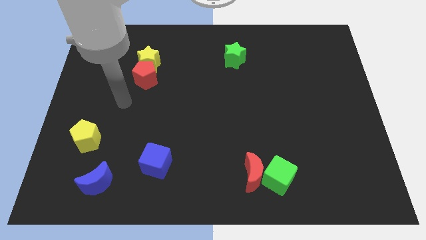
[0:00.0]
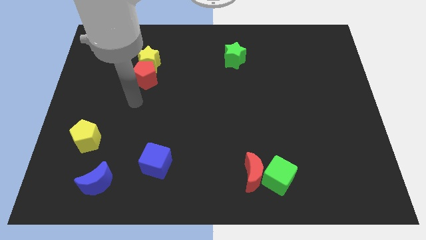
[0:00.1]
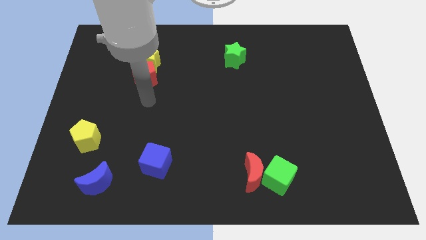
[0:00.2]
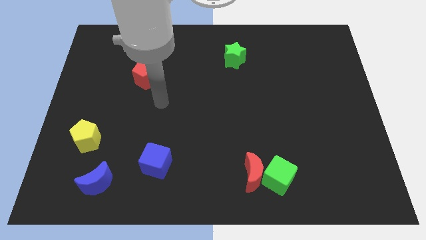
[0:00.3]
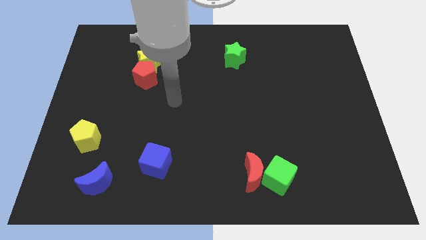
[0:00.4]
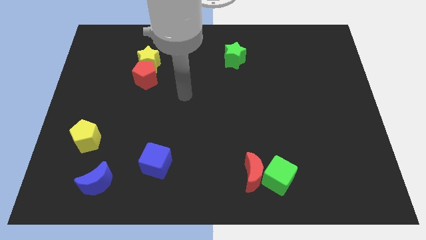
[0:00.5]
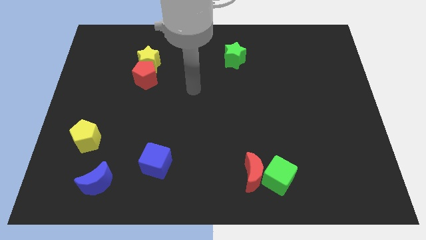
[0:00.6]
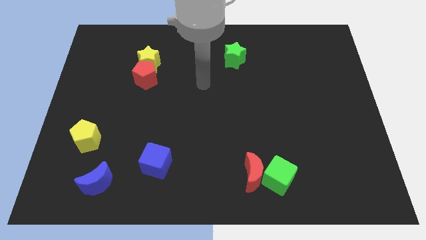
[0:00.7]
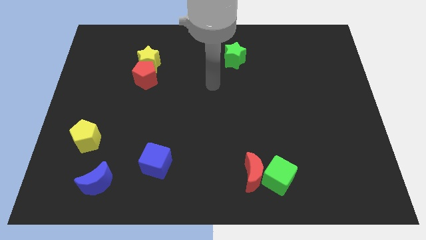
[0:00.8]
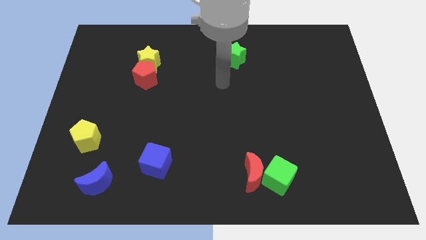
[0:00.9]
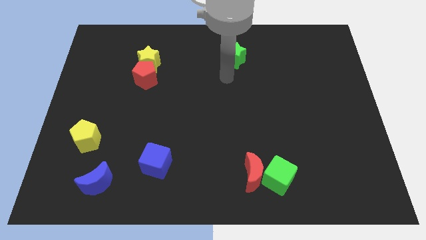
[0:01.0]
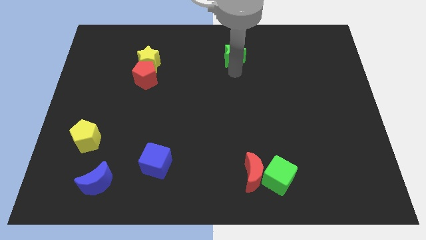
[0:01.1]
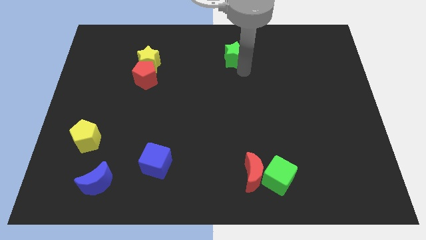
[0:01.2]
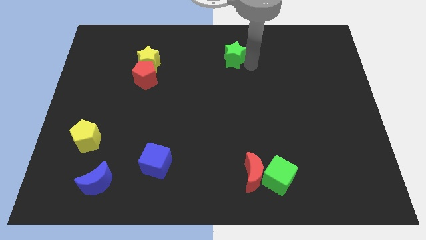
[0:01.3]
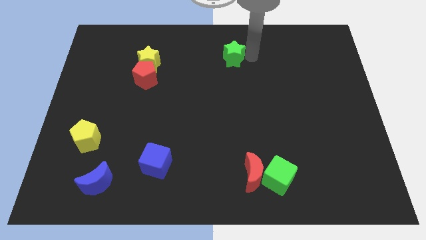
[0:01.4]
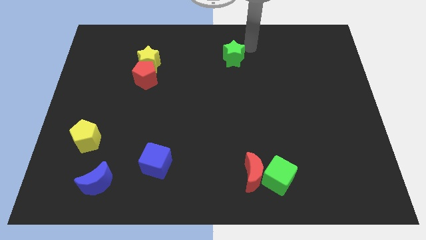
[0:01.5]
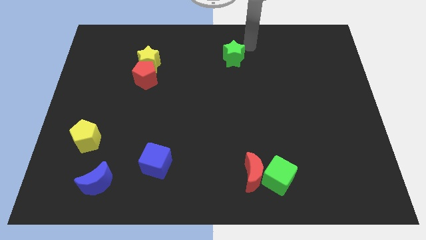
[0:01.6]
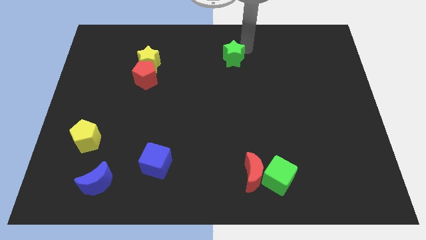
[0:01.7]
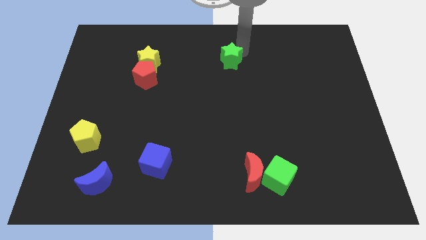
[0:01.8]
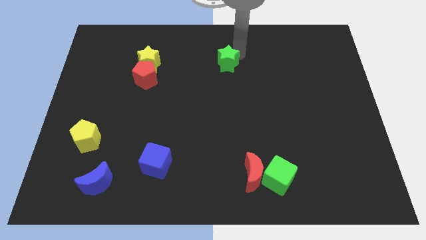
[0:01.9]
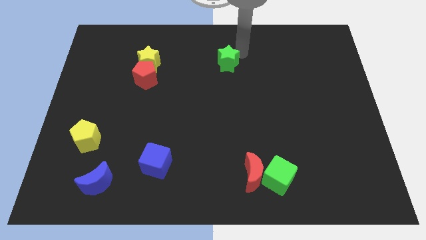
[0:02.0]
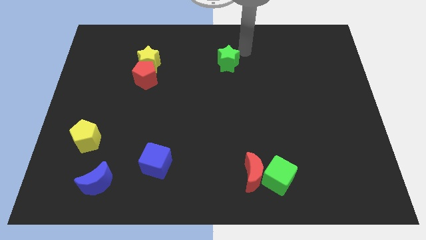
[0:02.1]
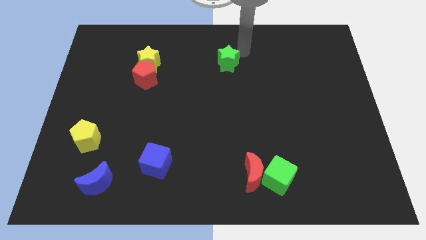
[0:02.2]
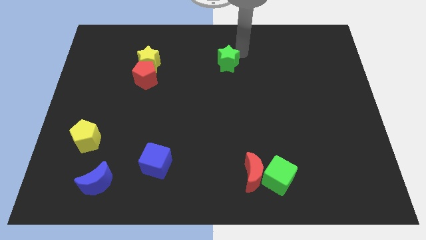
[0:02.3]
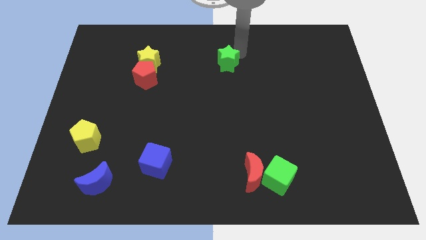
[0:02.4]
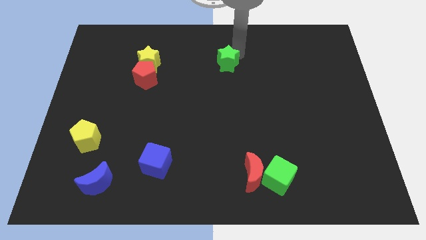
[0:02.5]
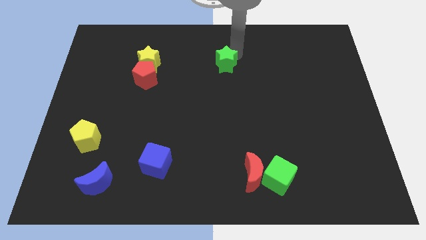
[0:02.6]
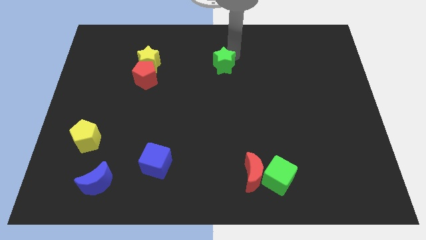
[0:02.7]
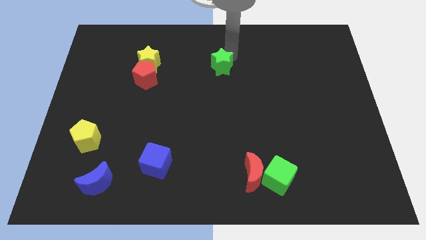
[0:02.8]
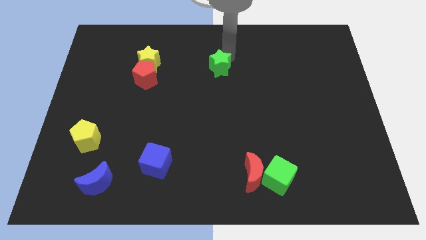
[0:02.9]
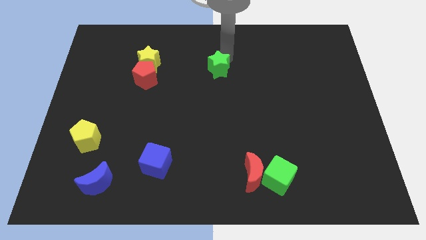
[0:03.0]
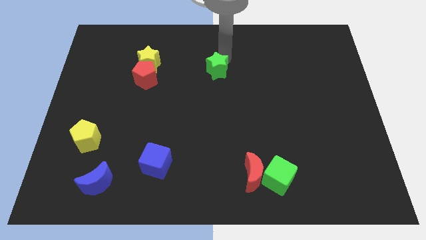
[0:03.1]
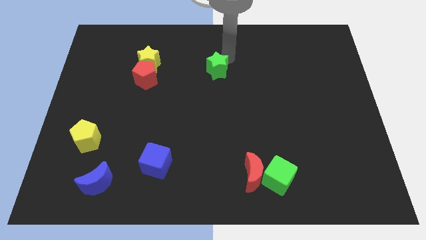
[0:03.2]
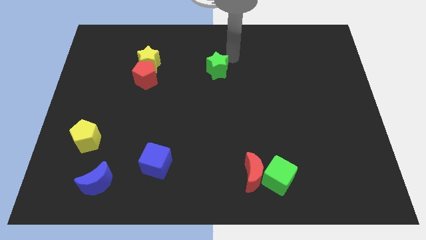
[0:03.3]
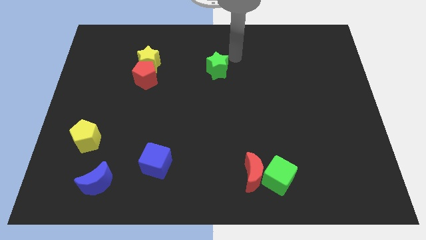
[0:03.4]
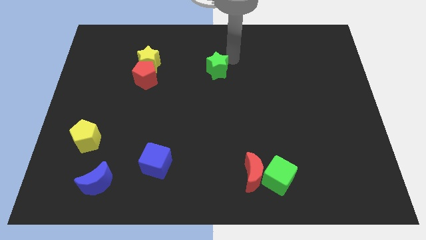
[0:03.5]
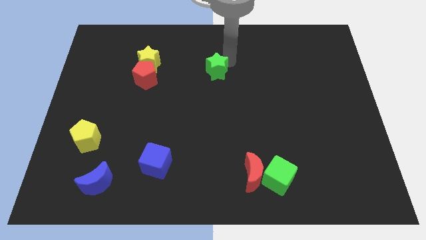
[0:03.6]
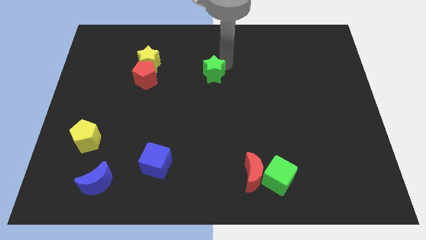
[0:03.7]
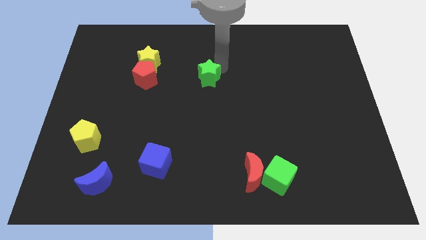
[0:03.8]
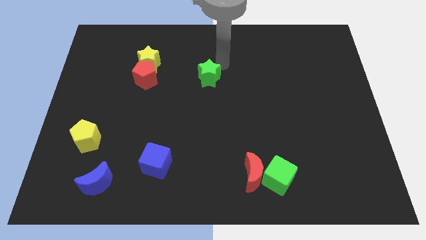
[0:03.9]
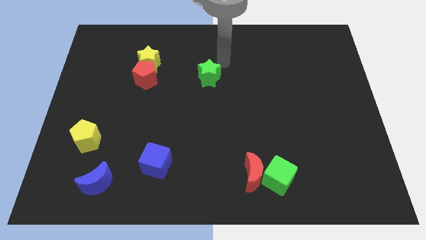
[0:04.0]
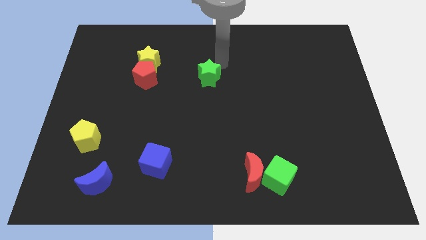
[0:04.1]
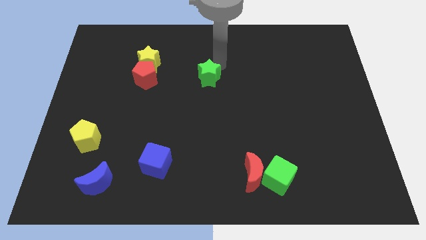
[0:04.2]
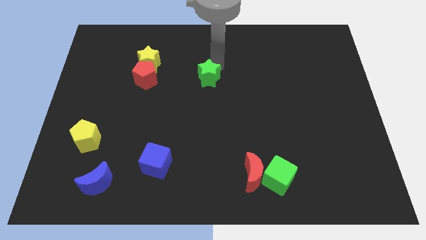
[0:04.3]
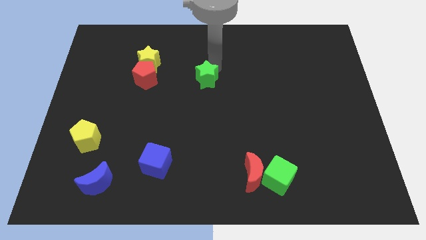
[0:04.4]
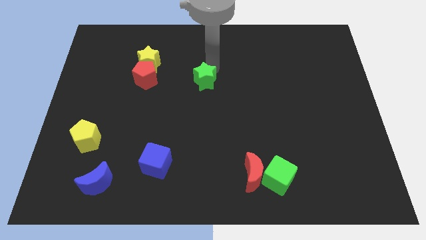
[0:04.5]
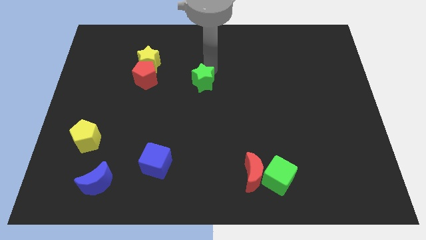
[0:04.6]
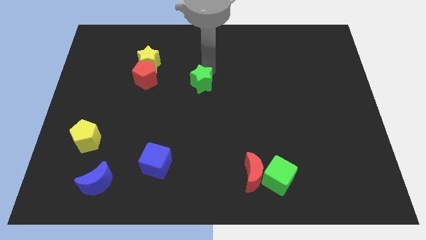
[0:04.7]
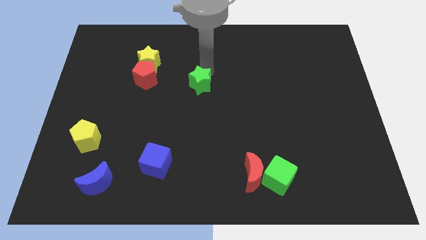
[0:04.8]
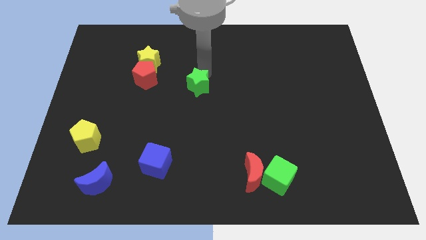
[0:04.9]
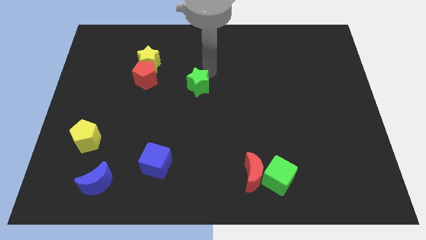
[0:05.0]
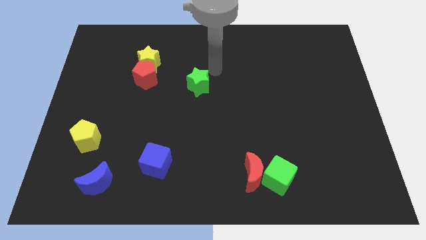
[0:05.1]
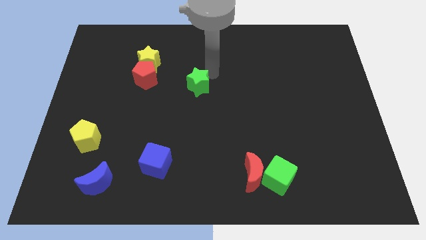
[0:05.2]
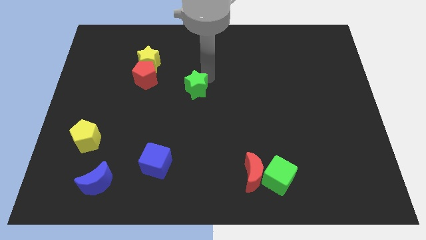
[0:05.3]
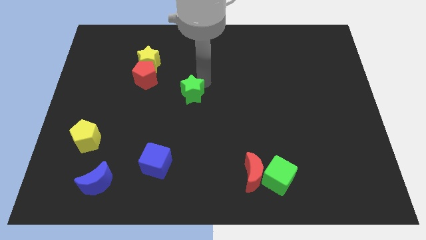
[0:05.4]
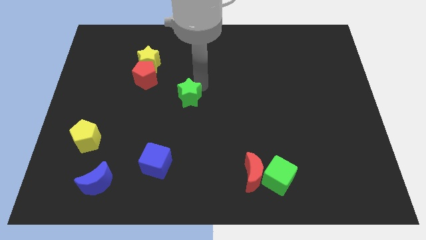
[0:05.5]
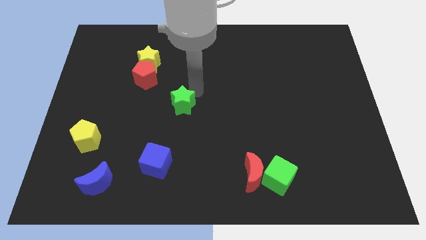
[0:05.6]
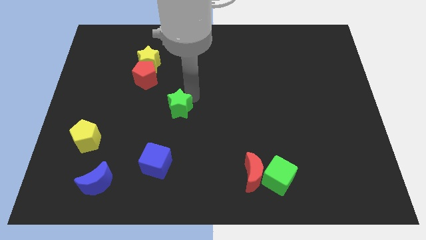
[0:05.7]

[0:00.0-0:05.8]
slide the green star downwards and then to the left

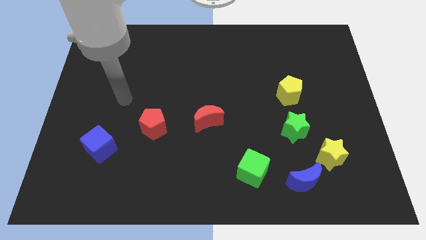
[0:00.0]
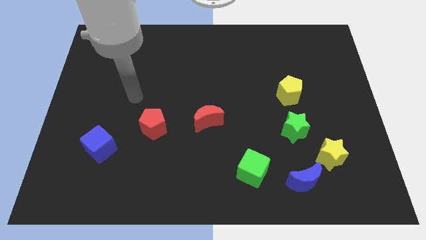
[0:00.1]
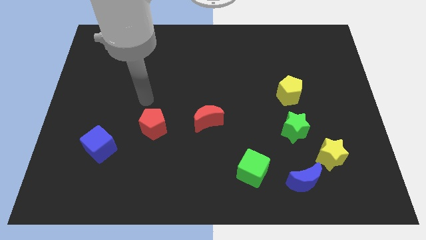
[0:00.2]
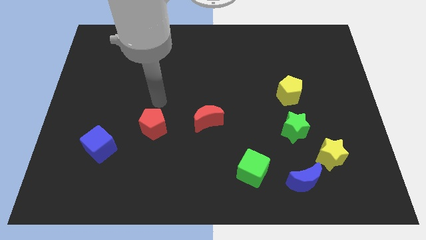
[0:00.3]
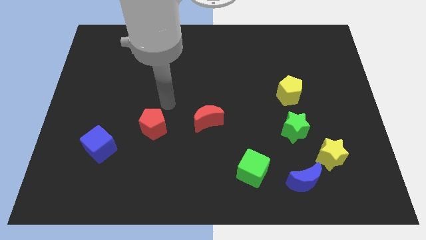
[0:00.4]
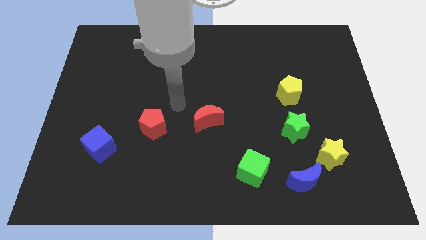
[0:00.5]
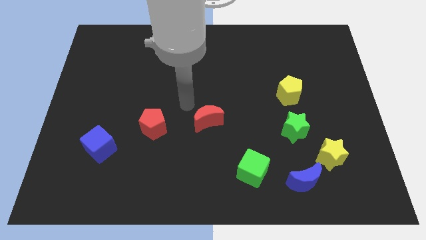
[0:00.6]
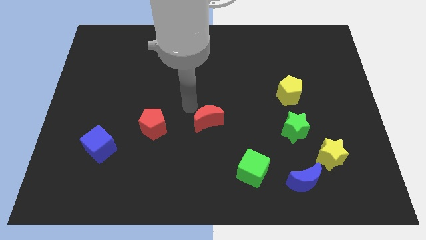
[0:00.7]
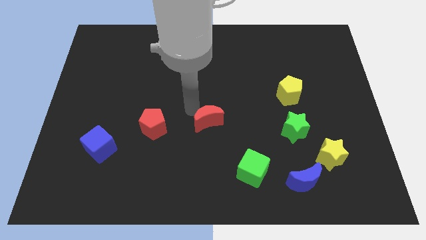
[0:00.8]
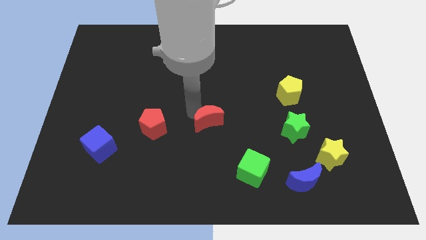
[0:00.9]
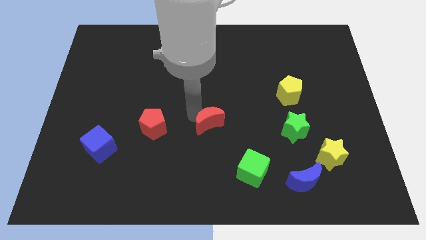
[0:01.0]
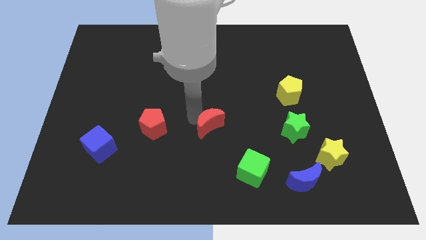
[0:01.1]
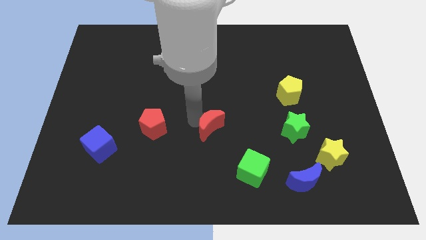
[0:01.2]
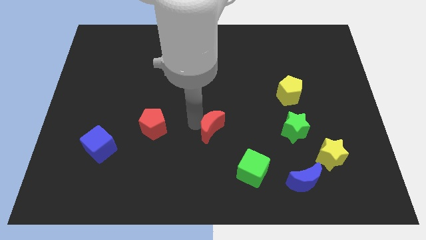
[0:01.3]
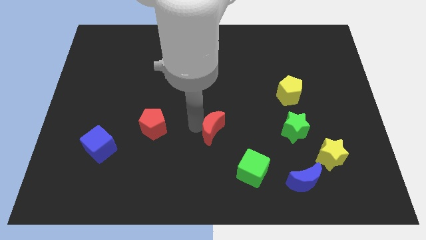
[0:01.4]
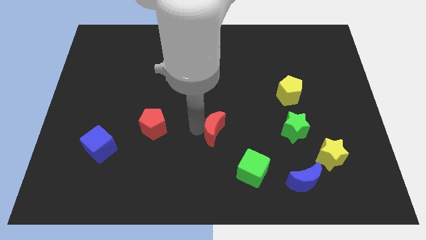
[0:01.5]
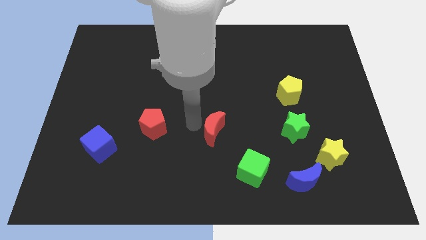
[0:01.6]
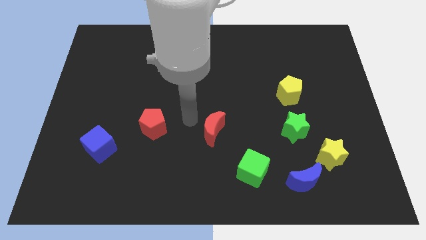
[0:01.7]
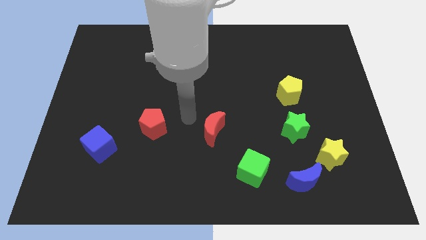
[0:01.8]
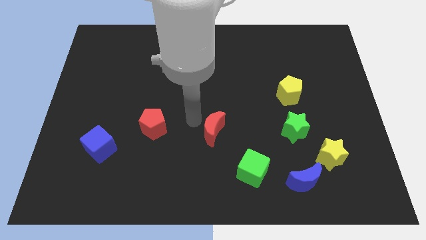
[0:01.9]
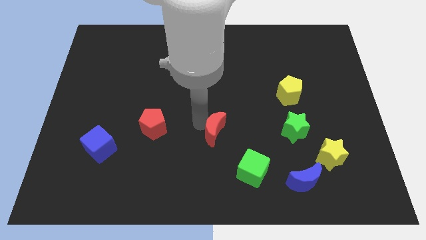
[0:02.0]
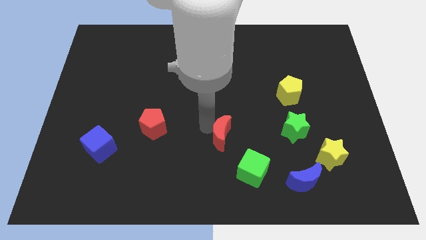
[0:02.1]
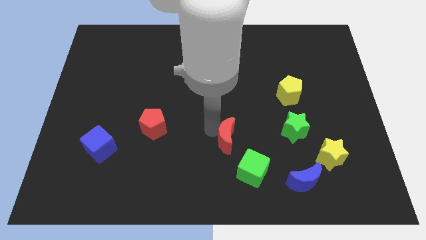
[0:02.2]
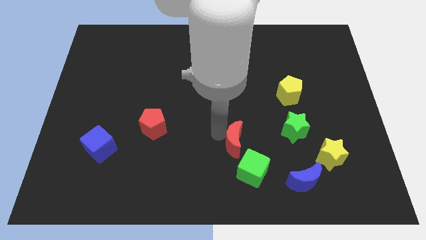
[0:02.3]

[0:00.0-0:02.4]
push the red moon down and to the right diagonally somewhat
